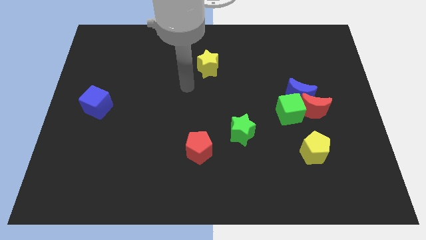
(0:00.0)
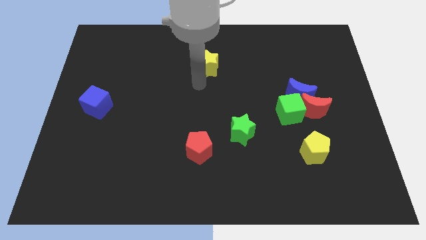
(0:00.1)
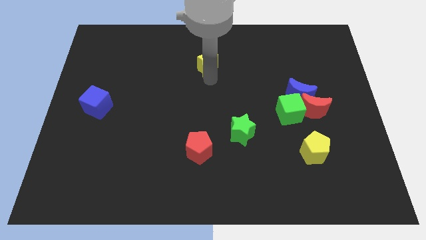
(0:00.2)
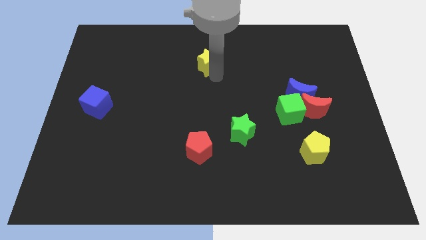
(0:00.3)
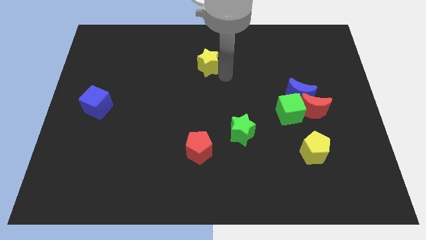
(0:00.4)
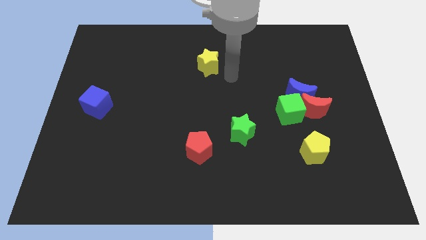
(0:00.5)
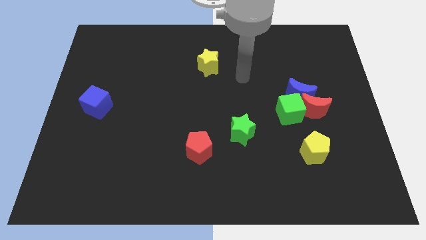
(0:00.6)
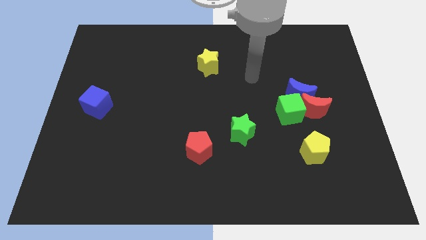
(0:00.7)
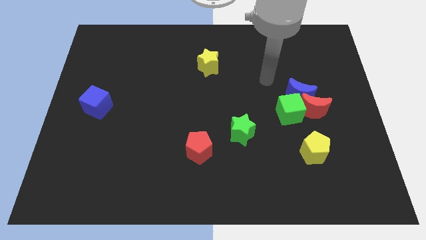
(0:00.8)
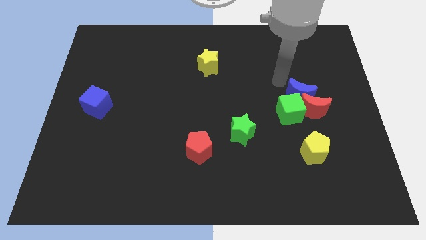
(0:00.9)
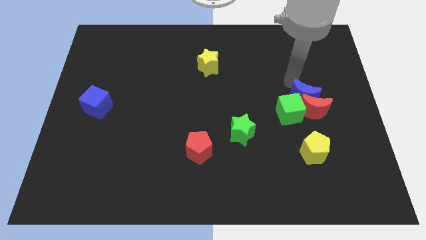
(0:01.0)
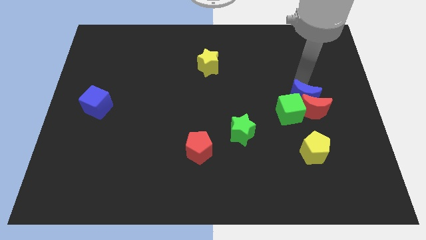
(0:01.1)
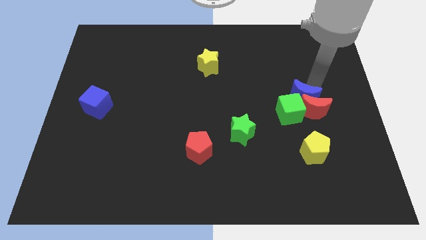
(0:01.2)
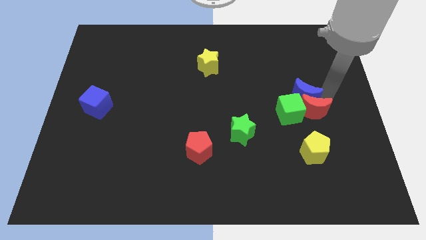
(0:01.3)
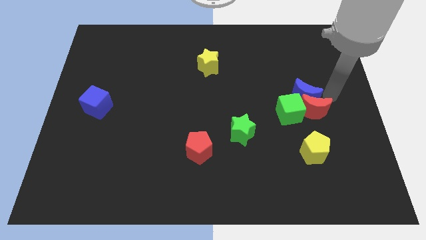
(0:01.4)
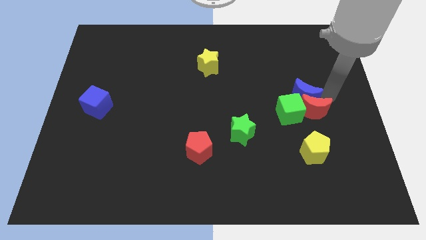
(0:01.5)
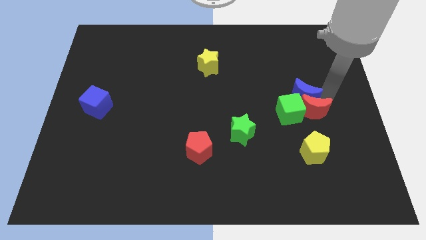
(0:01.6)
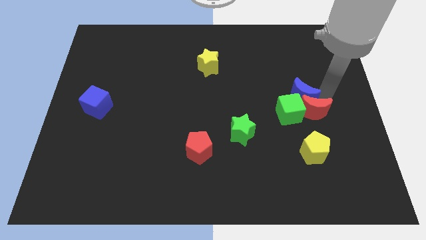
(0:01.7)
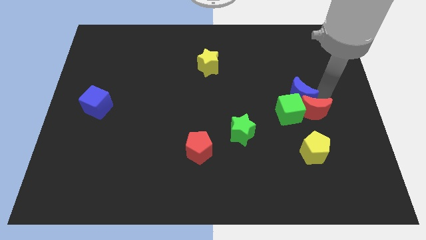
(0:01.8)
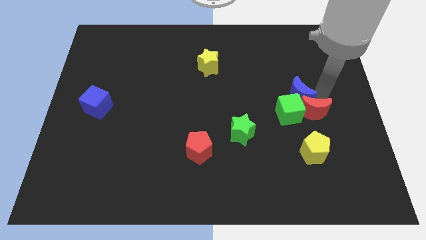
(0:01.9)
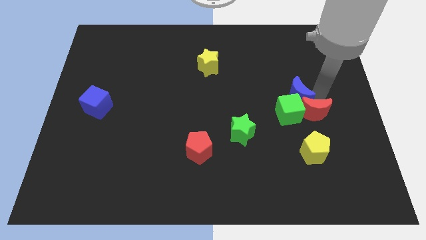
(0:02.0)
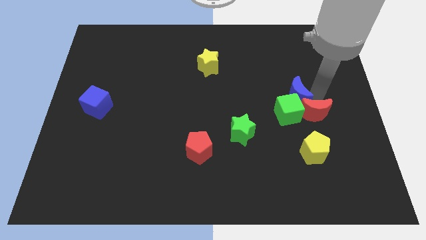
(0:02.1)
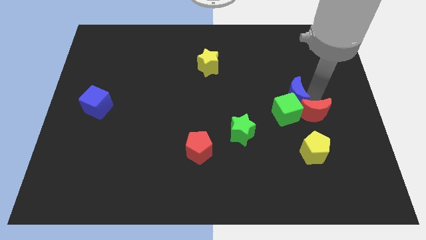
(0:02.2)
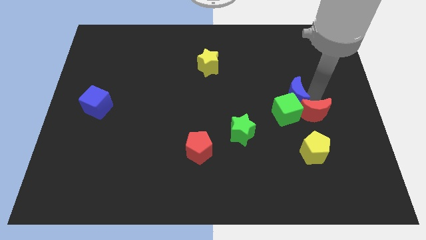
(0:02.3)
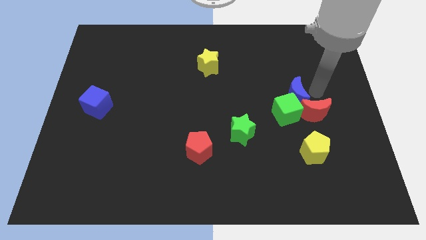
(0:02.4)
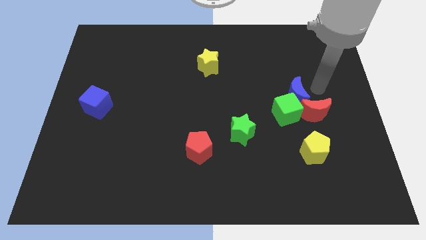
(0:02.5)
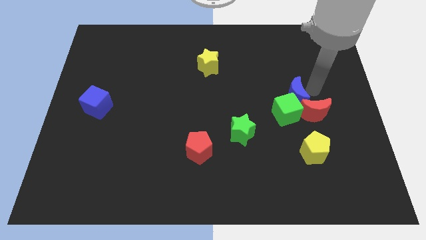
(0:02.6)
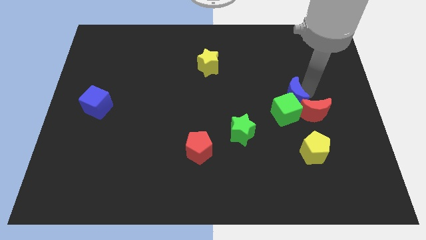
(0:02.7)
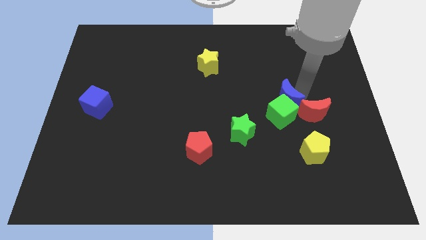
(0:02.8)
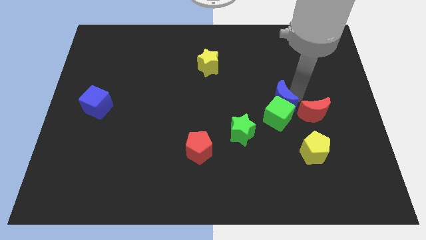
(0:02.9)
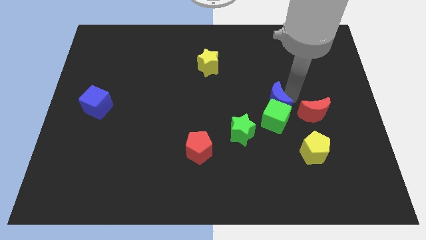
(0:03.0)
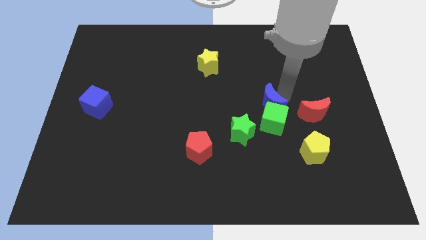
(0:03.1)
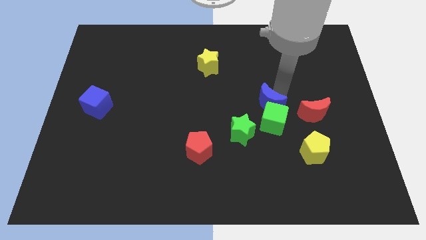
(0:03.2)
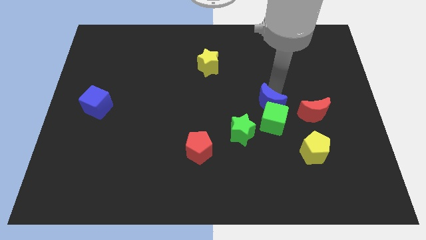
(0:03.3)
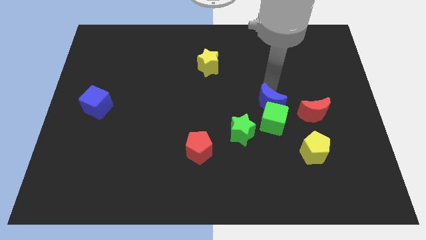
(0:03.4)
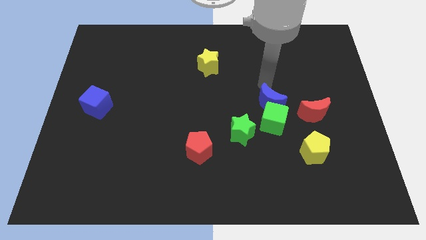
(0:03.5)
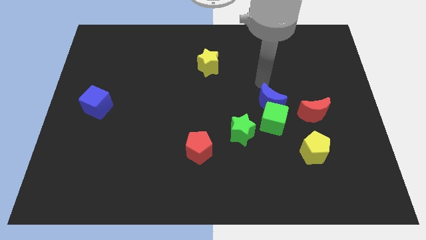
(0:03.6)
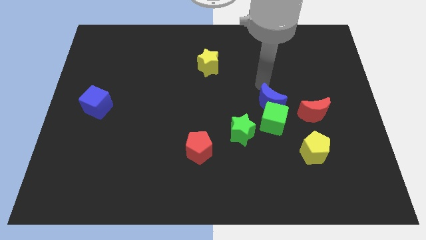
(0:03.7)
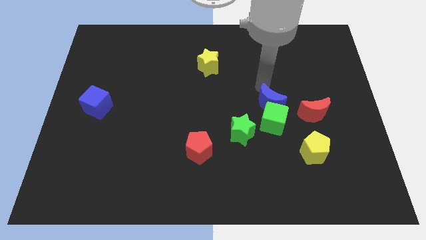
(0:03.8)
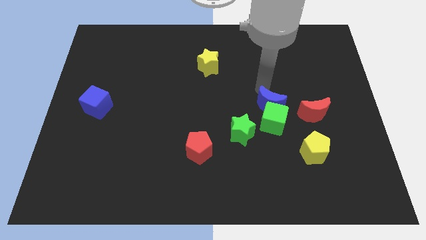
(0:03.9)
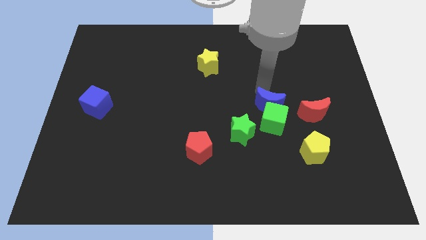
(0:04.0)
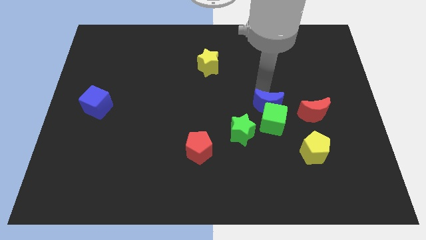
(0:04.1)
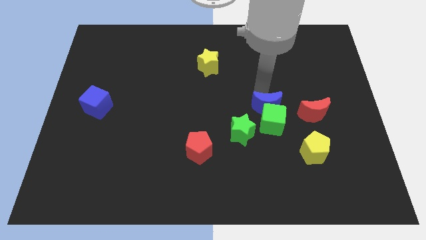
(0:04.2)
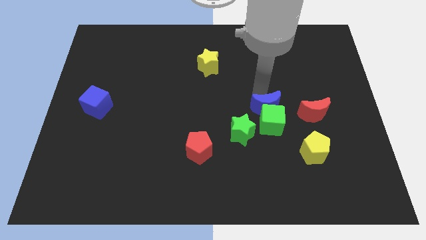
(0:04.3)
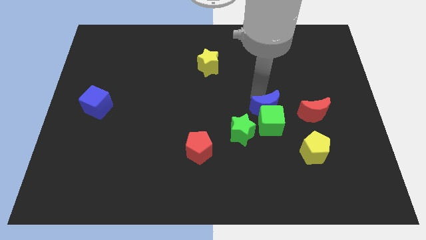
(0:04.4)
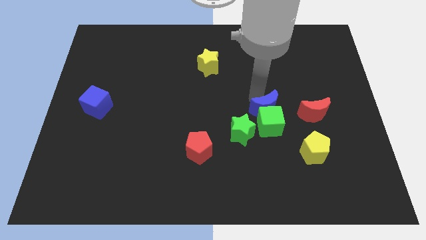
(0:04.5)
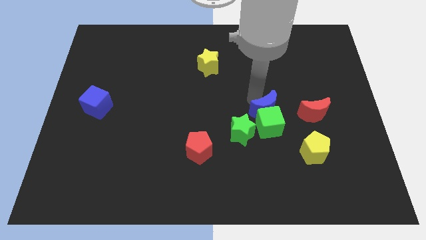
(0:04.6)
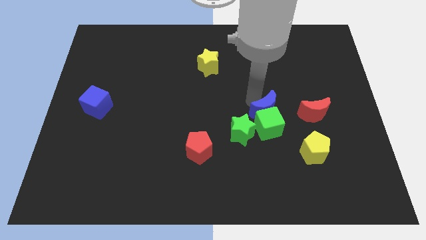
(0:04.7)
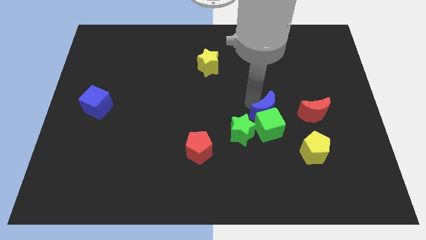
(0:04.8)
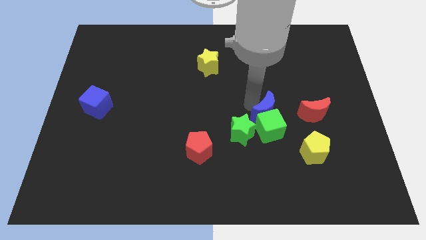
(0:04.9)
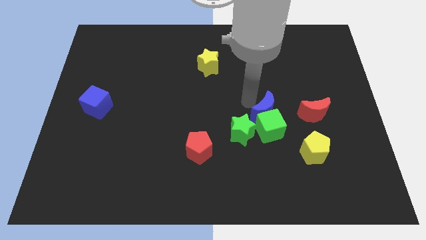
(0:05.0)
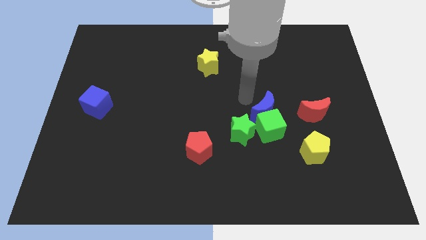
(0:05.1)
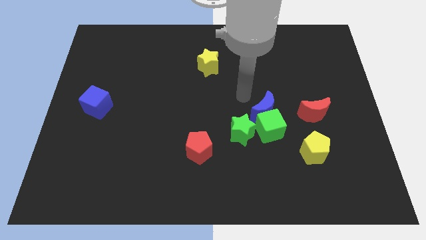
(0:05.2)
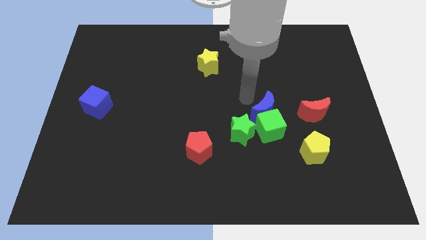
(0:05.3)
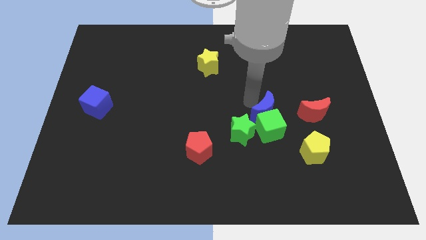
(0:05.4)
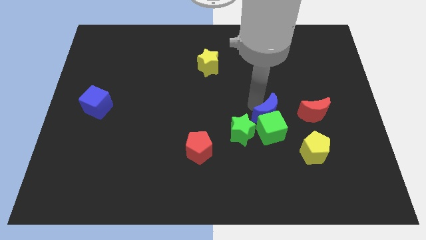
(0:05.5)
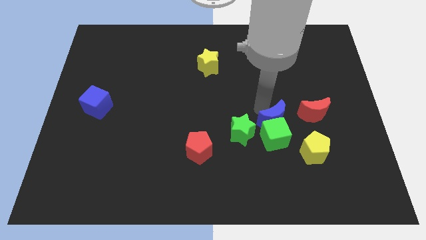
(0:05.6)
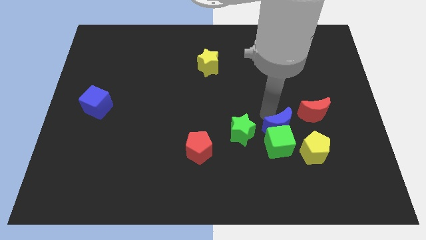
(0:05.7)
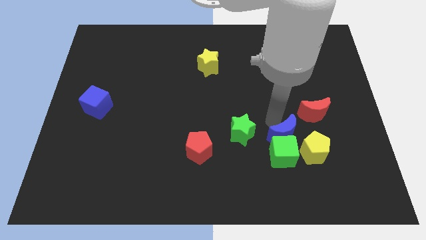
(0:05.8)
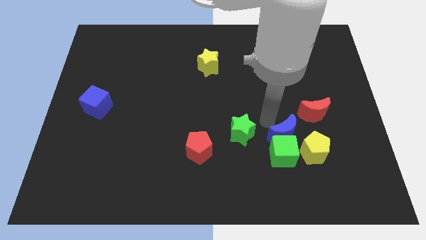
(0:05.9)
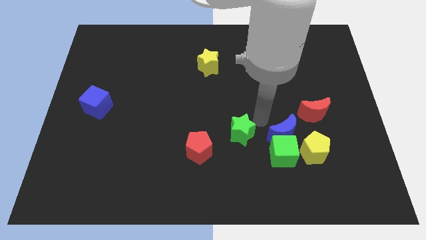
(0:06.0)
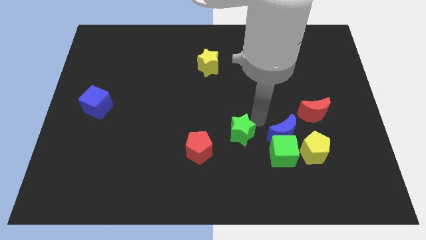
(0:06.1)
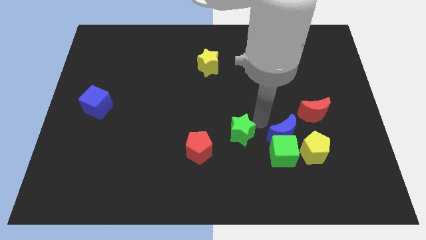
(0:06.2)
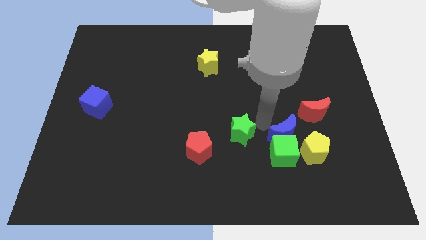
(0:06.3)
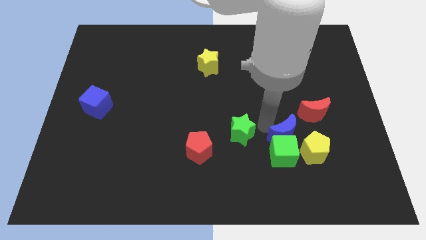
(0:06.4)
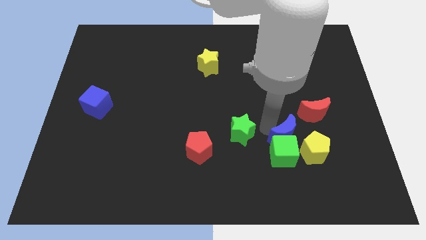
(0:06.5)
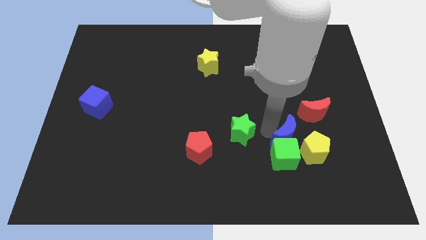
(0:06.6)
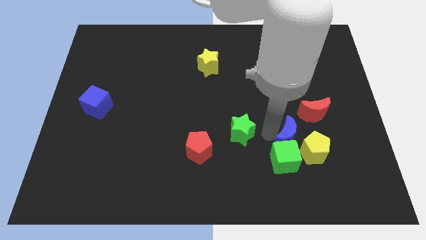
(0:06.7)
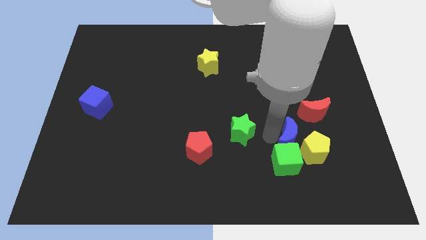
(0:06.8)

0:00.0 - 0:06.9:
slide the blue moon towards the yellow pentagon
